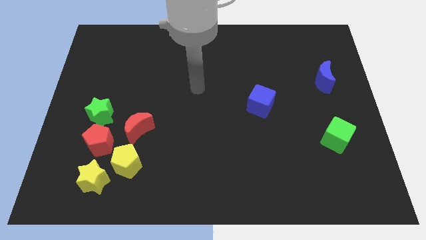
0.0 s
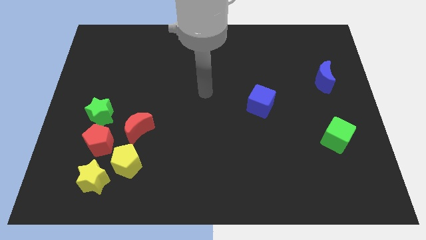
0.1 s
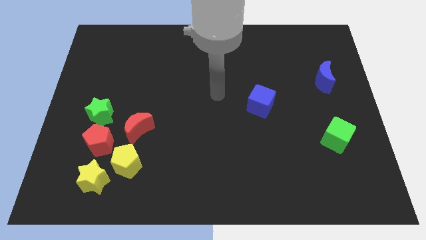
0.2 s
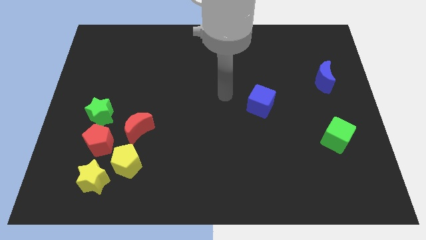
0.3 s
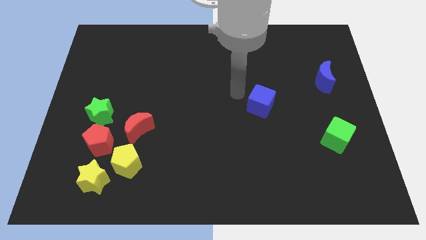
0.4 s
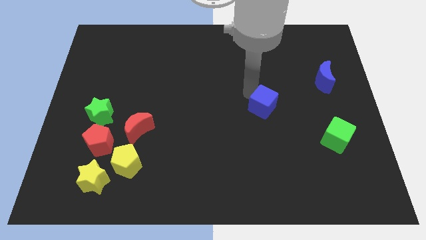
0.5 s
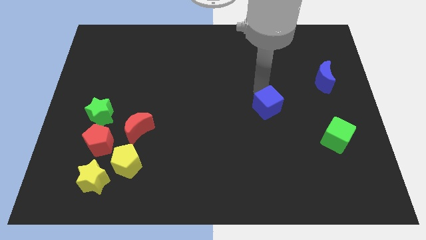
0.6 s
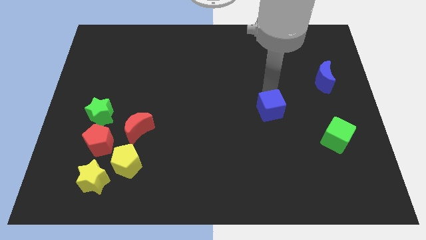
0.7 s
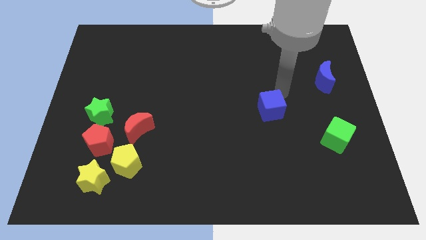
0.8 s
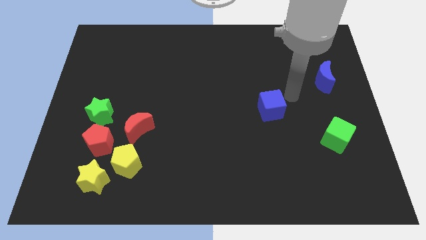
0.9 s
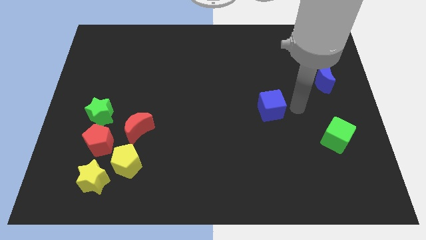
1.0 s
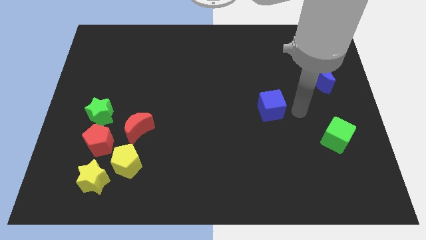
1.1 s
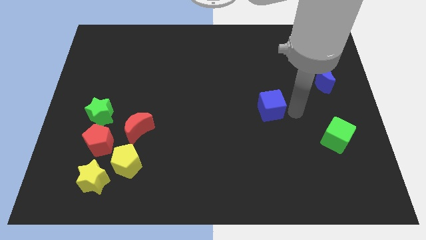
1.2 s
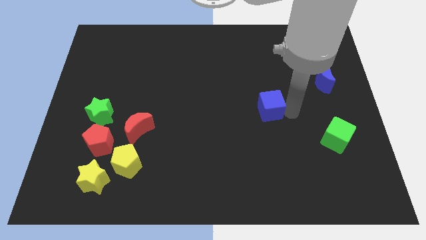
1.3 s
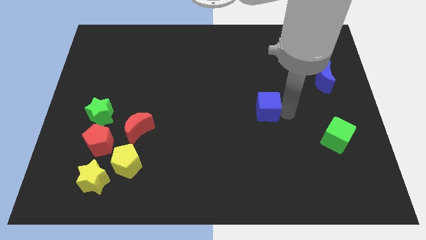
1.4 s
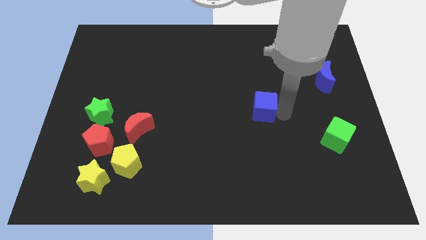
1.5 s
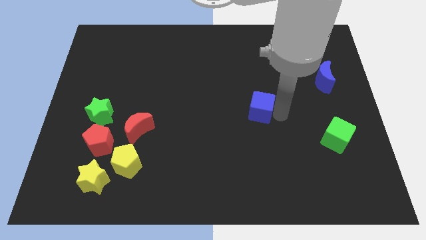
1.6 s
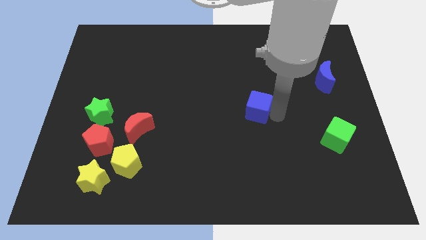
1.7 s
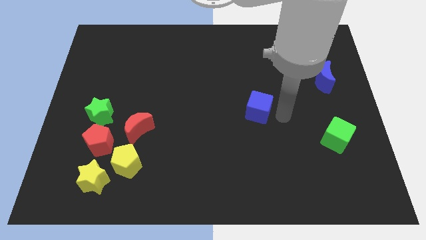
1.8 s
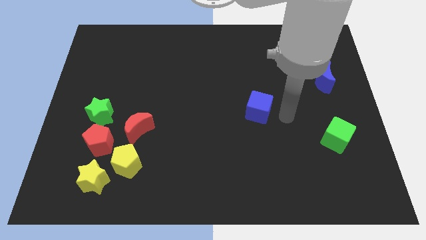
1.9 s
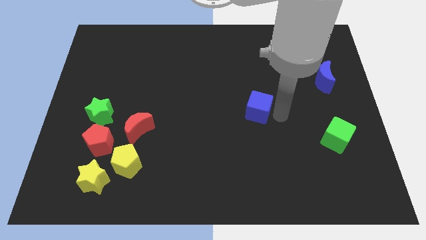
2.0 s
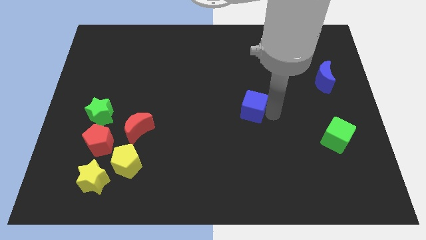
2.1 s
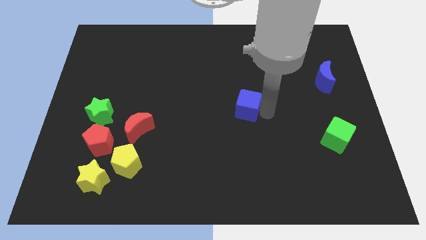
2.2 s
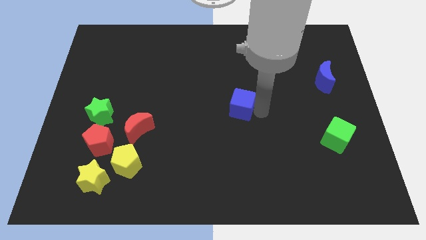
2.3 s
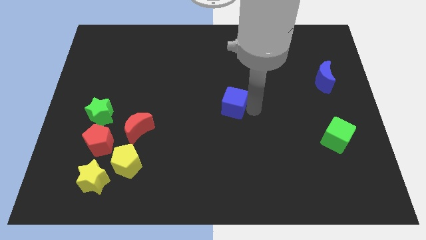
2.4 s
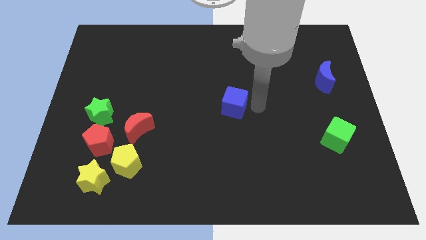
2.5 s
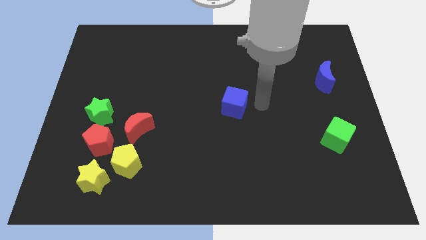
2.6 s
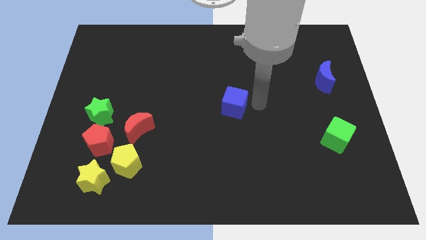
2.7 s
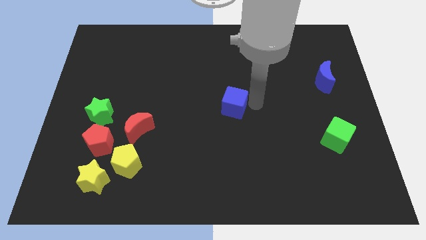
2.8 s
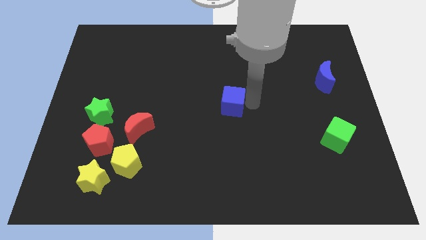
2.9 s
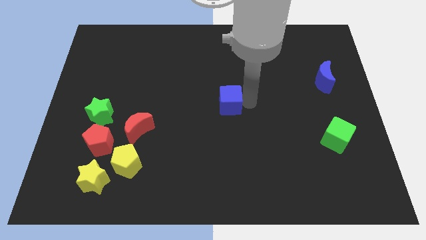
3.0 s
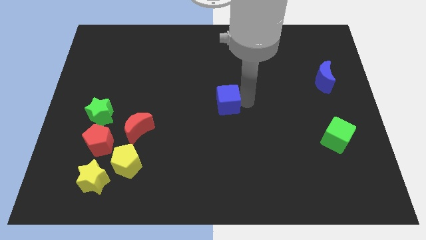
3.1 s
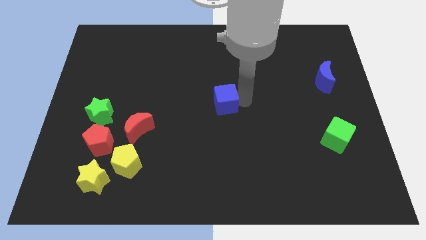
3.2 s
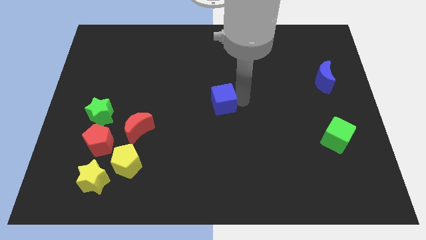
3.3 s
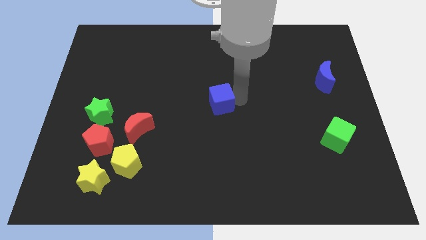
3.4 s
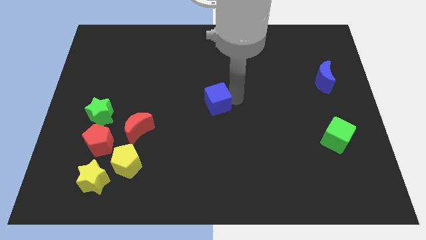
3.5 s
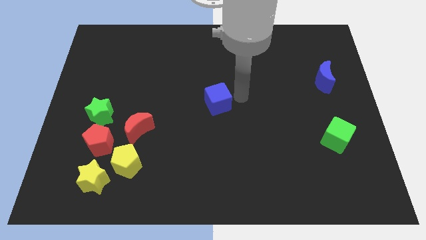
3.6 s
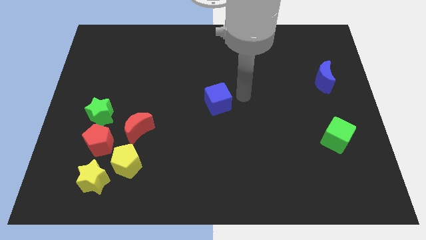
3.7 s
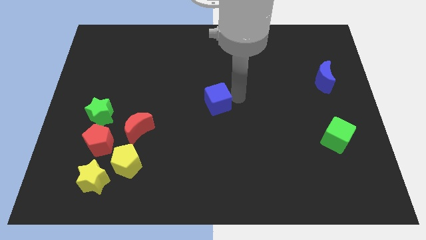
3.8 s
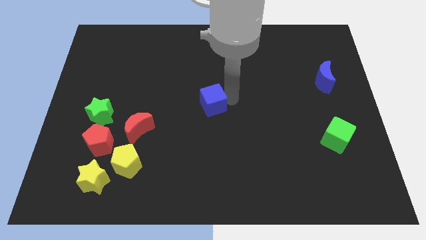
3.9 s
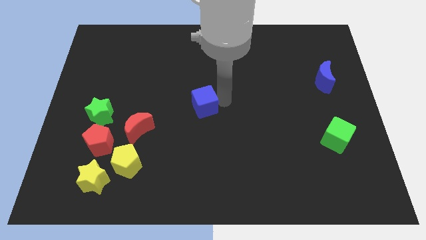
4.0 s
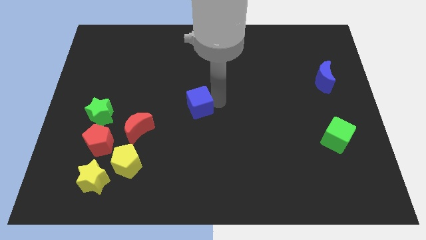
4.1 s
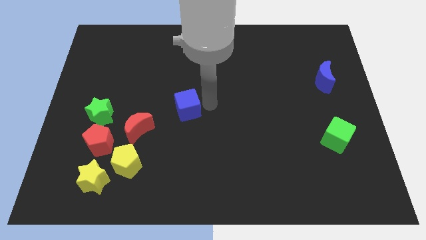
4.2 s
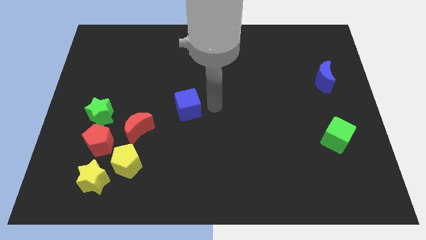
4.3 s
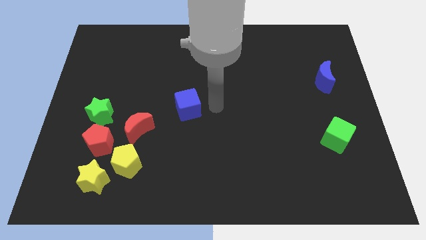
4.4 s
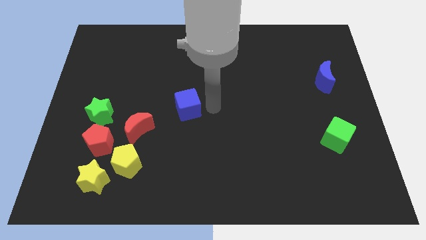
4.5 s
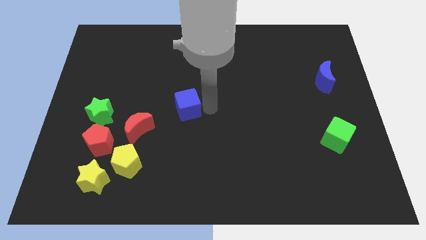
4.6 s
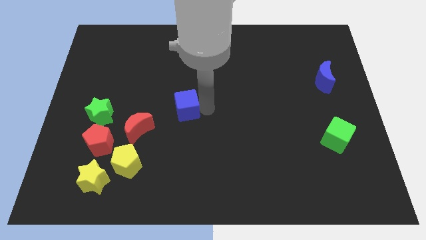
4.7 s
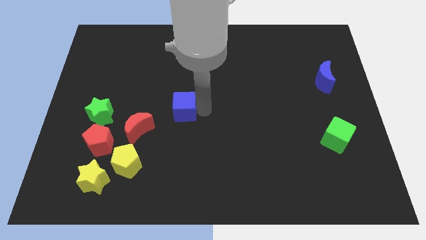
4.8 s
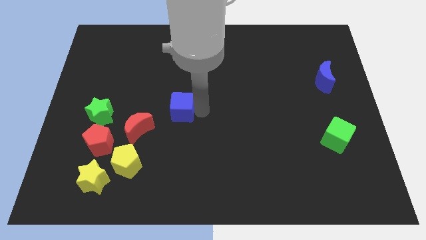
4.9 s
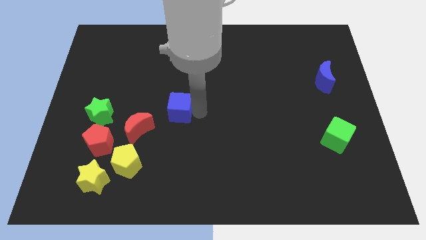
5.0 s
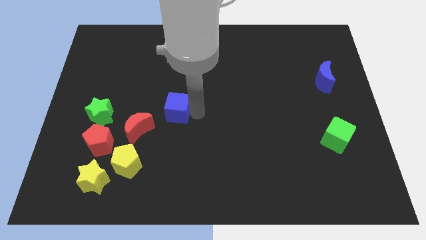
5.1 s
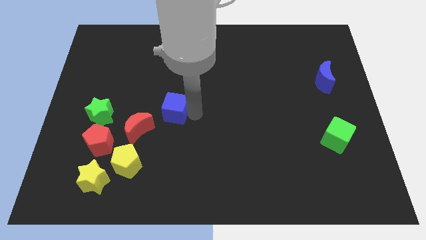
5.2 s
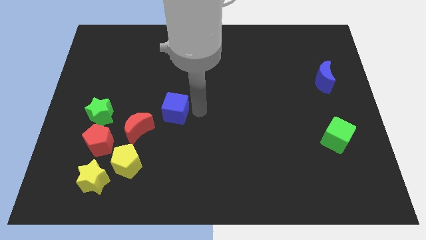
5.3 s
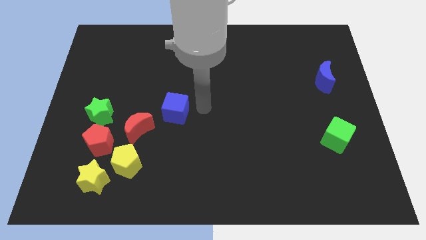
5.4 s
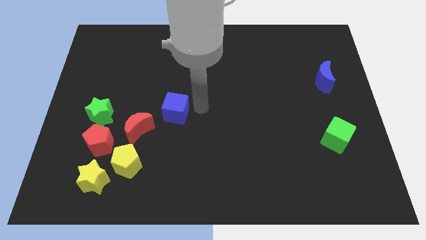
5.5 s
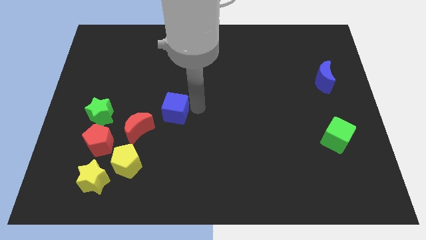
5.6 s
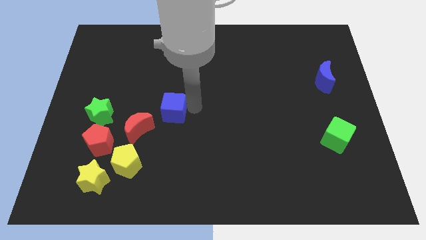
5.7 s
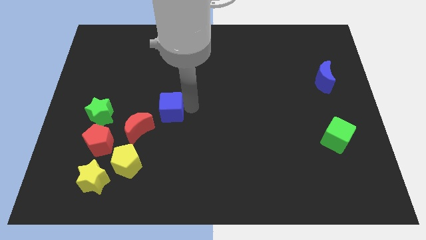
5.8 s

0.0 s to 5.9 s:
slide the blue cube to the right side of the green star

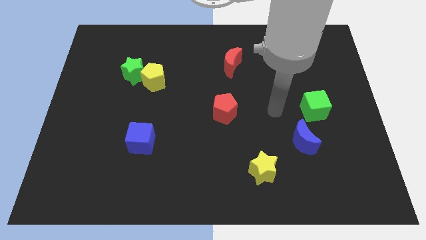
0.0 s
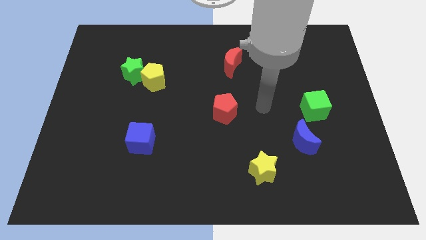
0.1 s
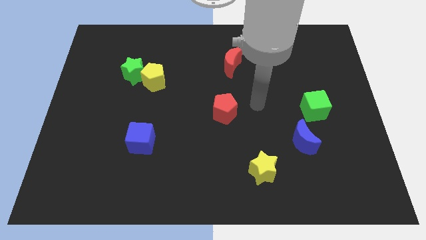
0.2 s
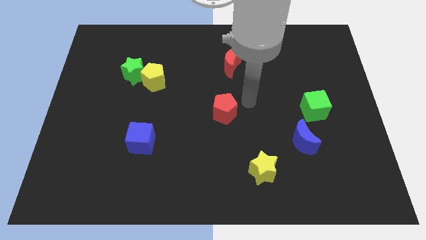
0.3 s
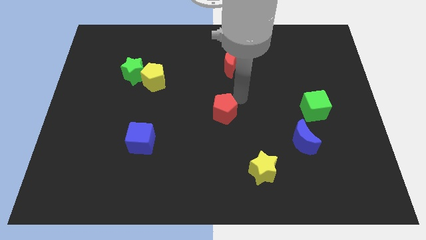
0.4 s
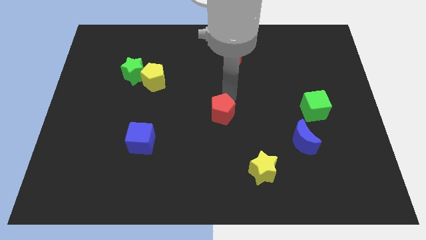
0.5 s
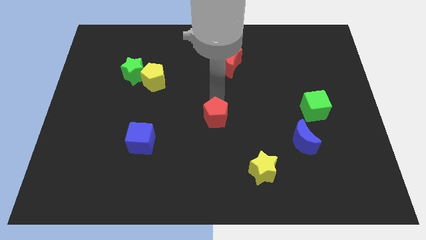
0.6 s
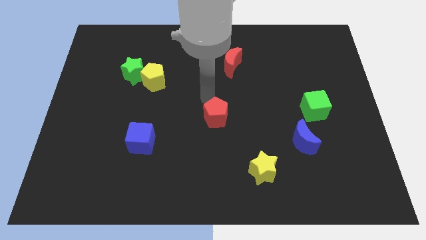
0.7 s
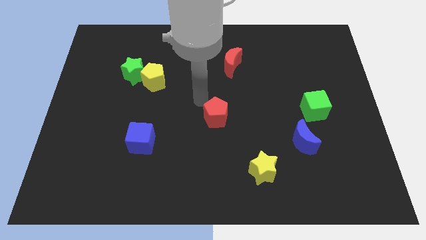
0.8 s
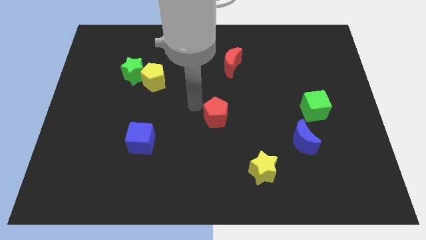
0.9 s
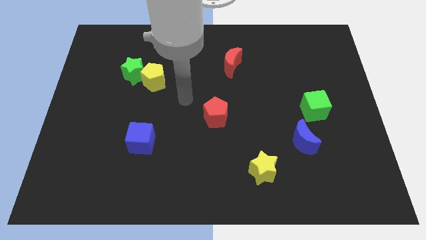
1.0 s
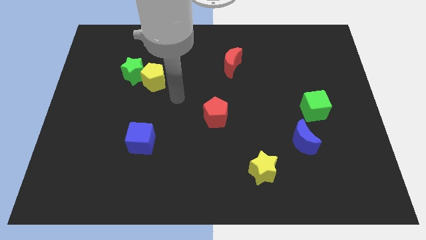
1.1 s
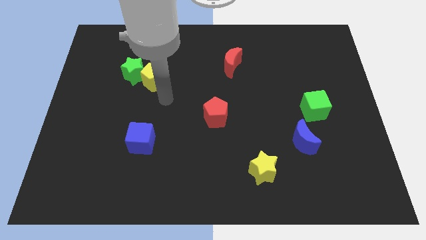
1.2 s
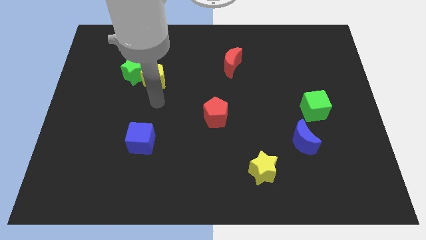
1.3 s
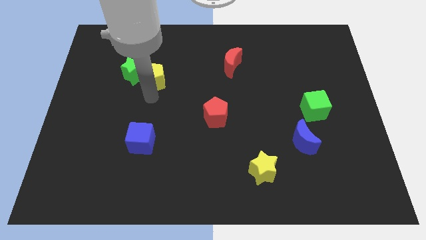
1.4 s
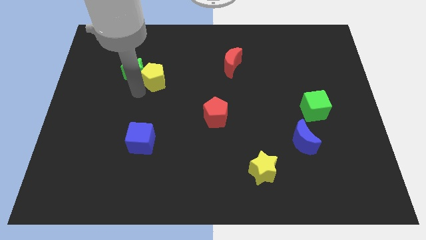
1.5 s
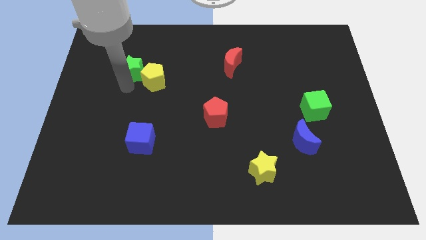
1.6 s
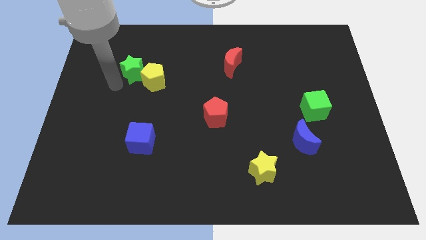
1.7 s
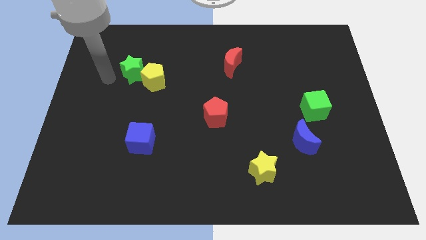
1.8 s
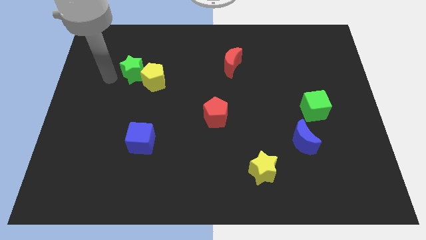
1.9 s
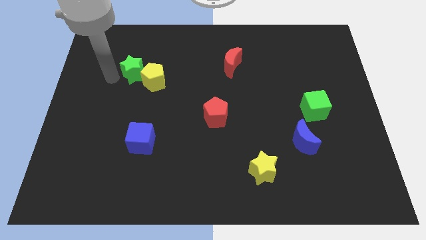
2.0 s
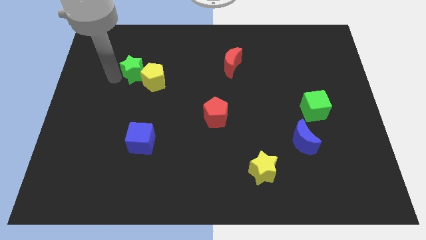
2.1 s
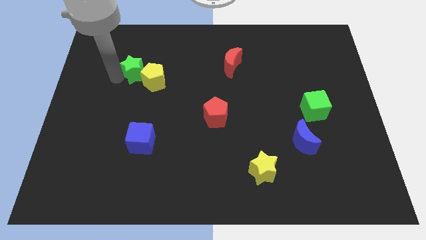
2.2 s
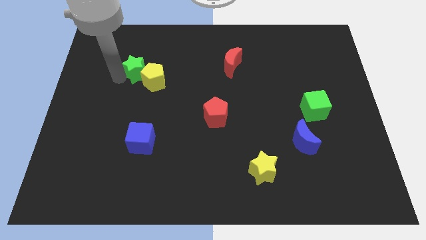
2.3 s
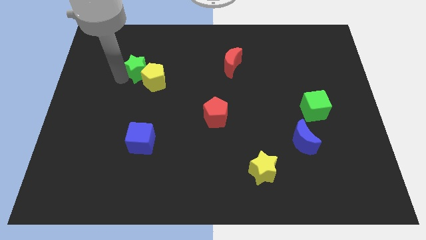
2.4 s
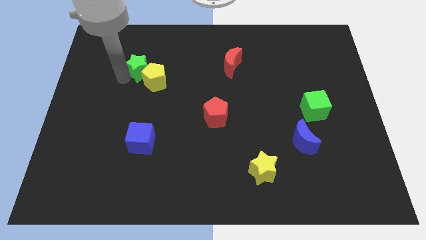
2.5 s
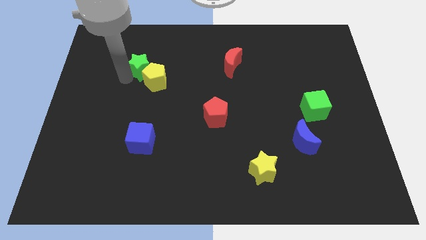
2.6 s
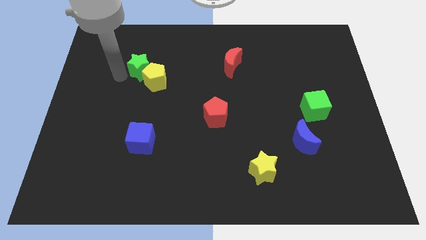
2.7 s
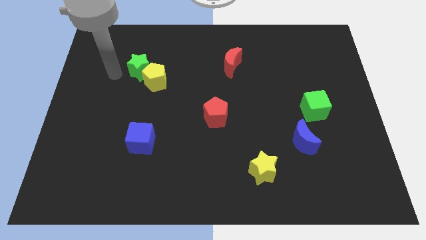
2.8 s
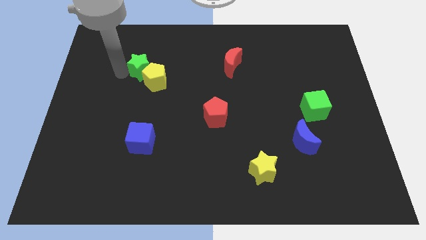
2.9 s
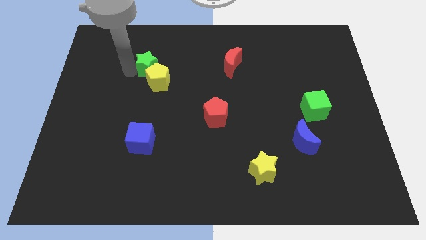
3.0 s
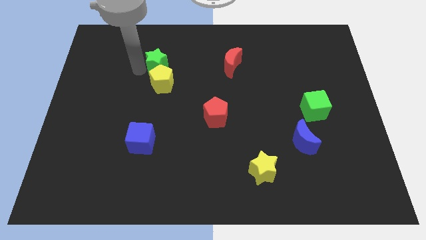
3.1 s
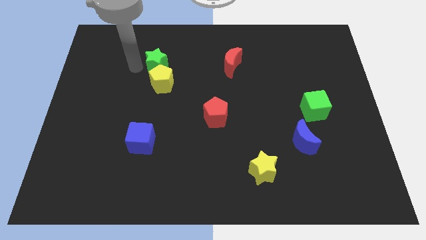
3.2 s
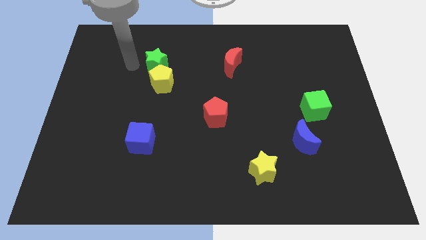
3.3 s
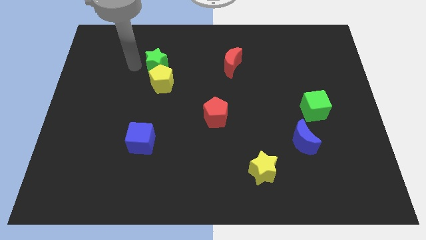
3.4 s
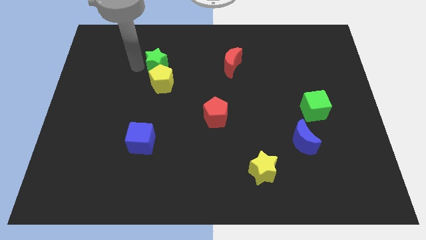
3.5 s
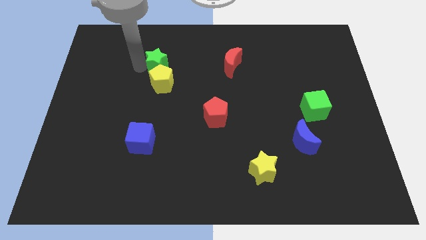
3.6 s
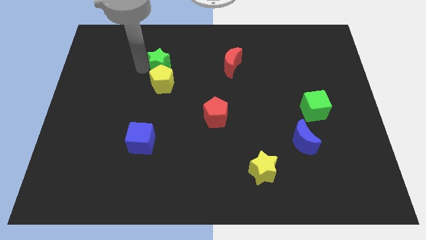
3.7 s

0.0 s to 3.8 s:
slide the green star diagonally up and to the right of the yellow pentagon
